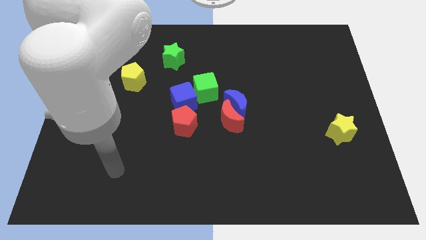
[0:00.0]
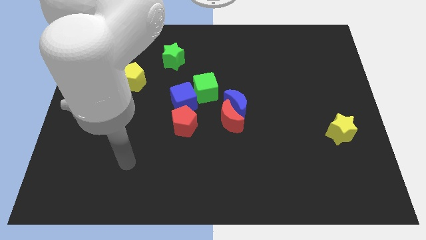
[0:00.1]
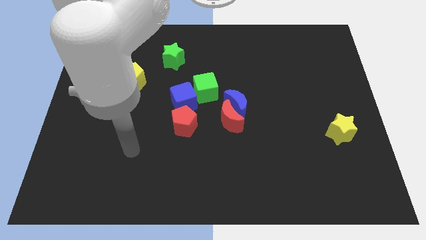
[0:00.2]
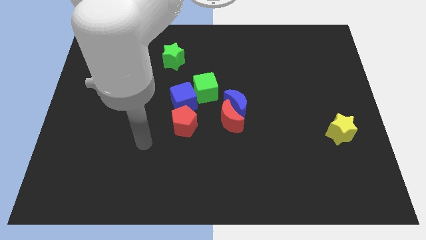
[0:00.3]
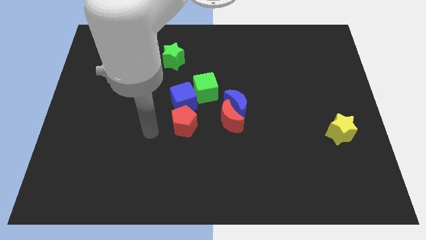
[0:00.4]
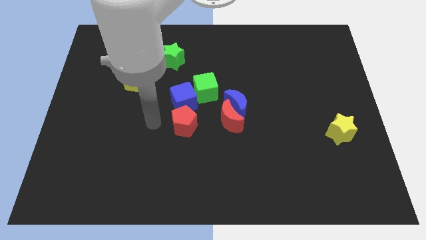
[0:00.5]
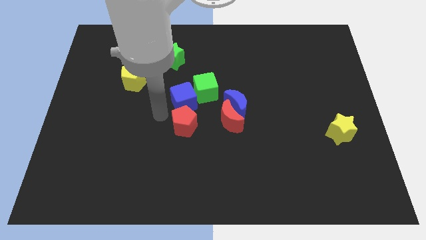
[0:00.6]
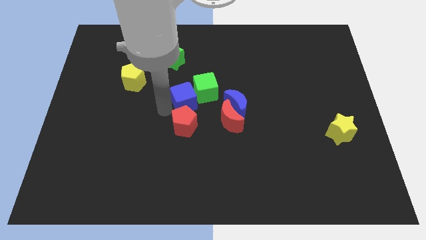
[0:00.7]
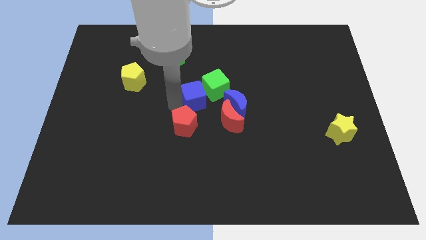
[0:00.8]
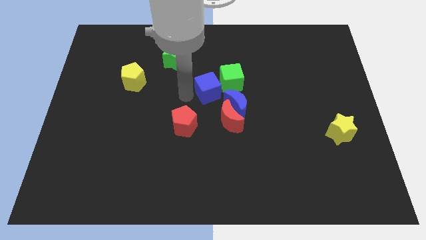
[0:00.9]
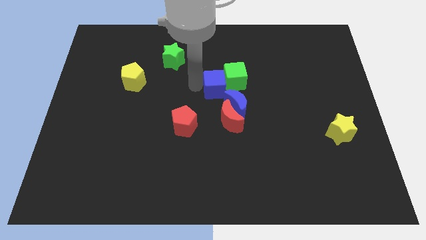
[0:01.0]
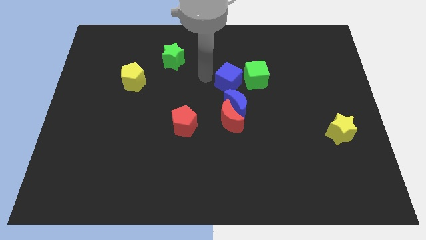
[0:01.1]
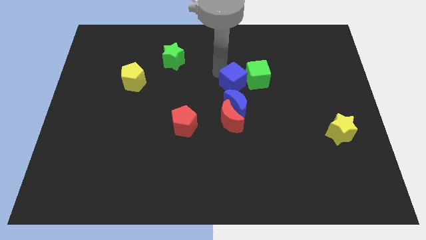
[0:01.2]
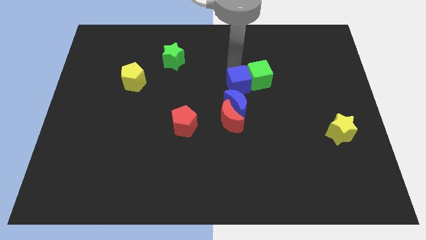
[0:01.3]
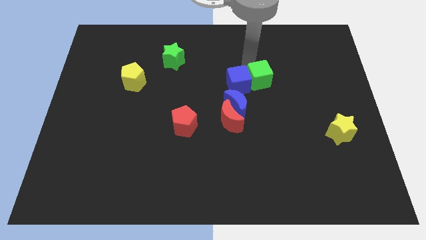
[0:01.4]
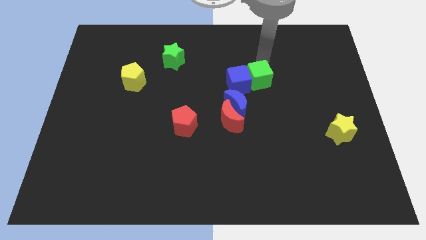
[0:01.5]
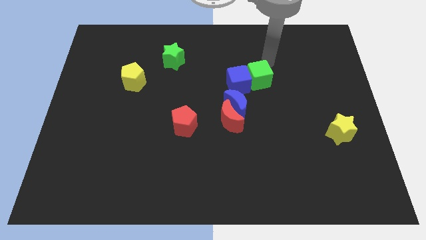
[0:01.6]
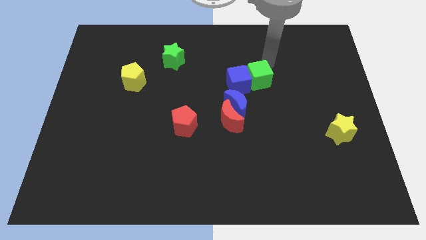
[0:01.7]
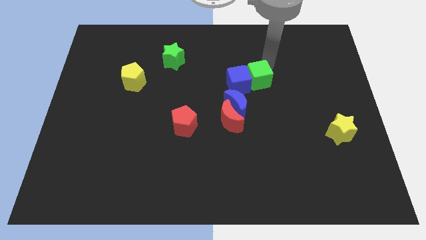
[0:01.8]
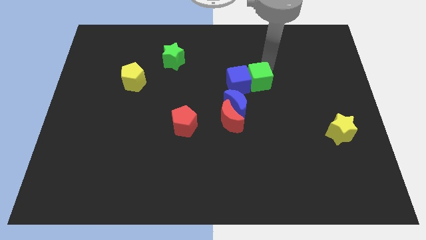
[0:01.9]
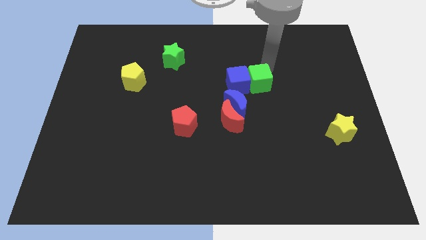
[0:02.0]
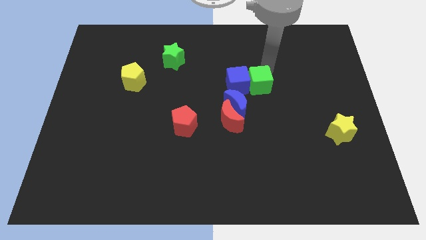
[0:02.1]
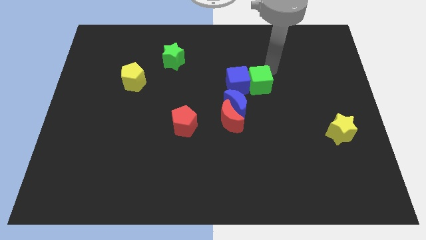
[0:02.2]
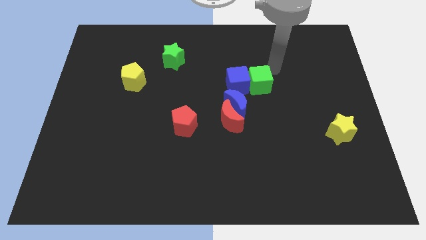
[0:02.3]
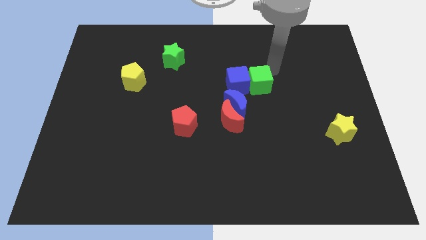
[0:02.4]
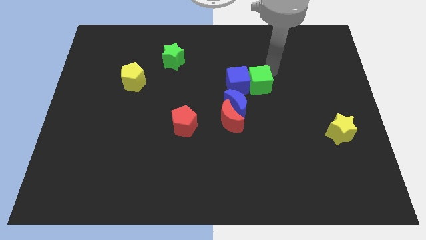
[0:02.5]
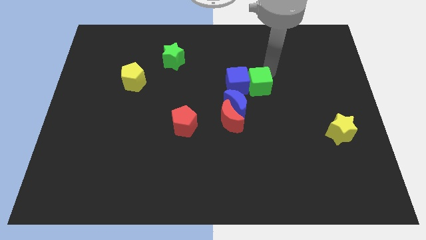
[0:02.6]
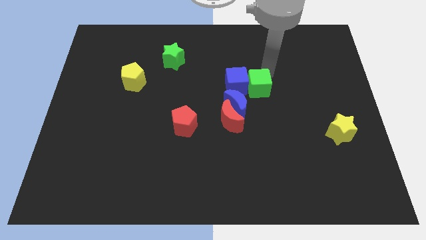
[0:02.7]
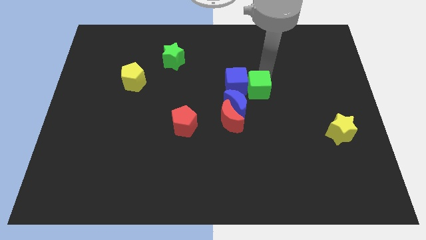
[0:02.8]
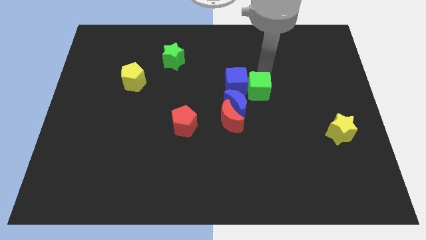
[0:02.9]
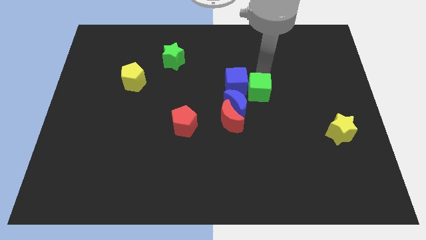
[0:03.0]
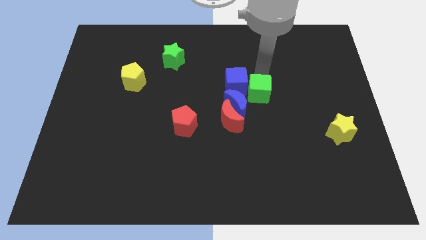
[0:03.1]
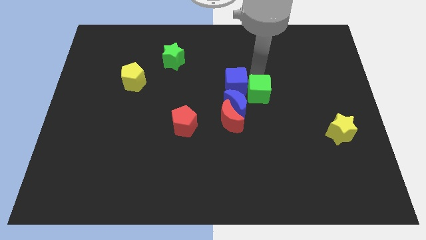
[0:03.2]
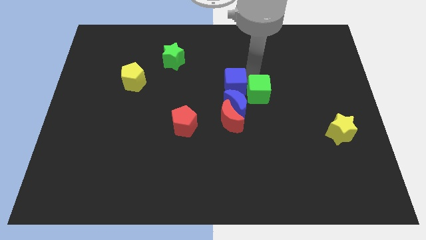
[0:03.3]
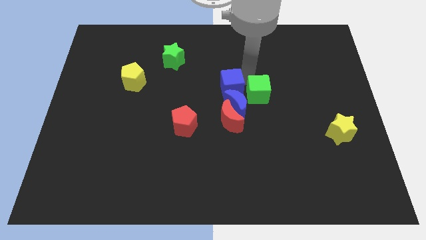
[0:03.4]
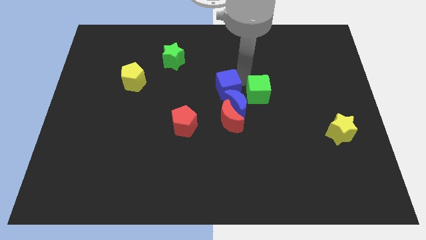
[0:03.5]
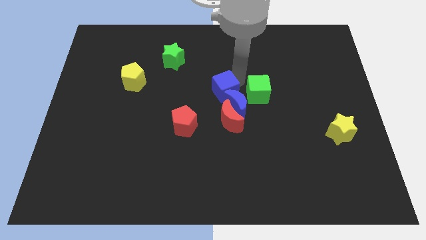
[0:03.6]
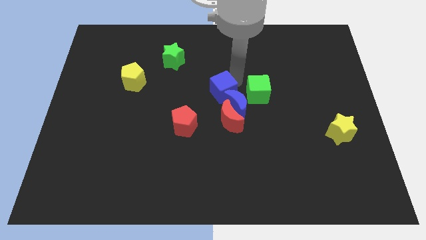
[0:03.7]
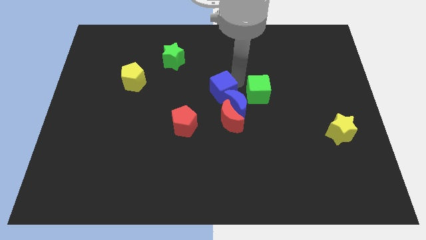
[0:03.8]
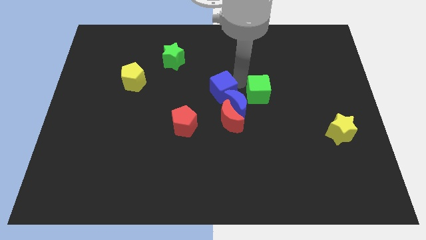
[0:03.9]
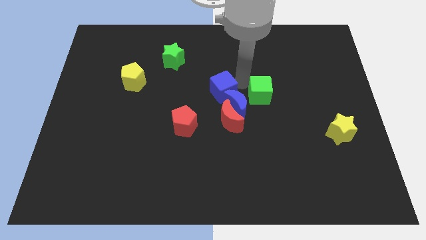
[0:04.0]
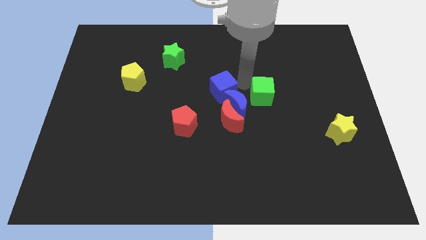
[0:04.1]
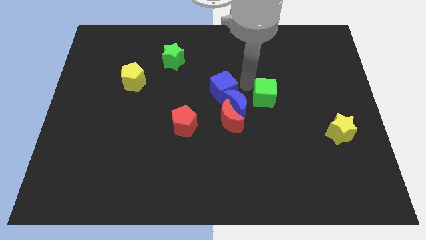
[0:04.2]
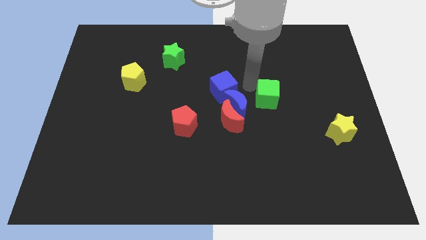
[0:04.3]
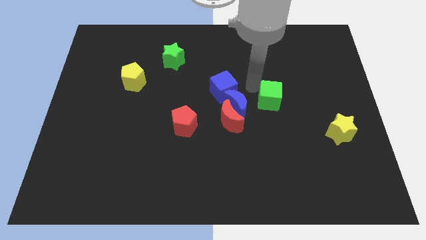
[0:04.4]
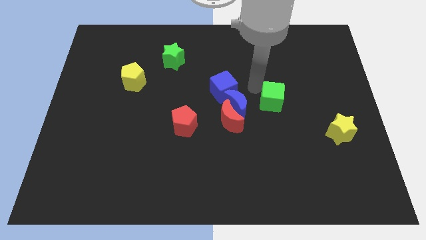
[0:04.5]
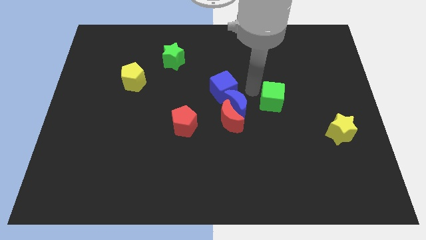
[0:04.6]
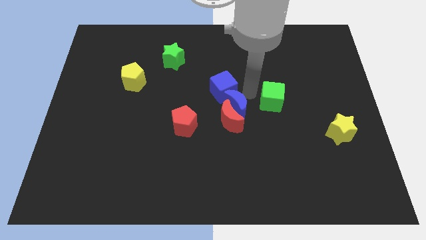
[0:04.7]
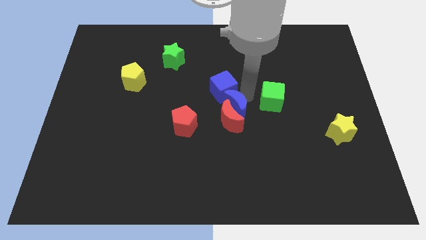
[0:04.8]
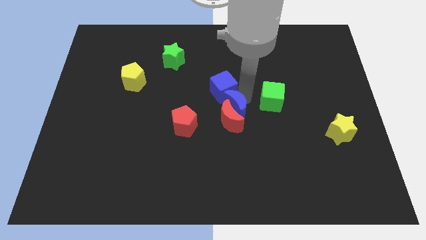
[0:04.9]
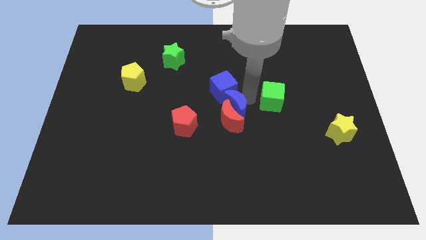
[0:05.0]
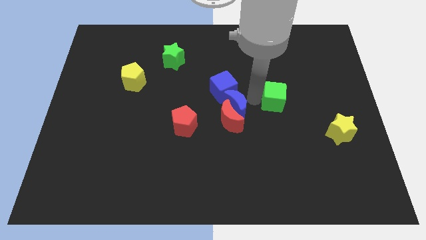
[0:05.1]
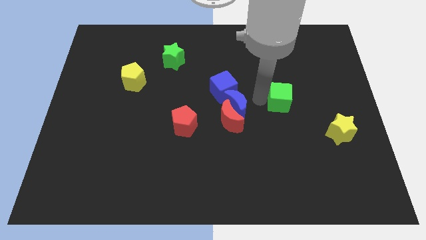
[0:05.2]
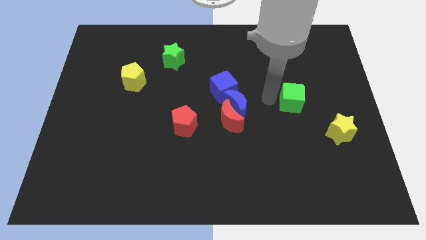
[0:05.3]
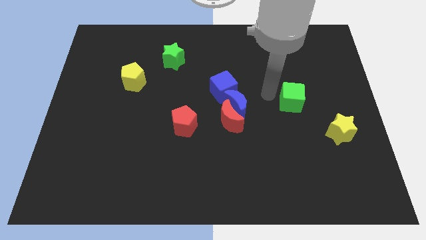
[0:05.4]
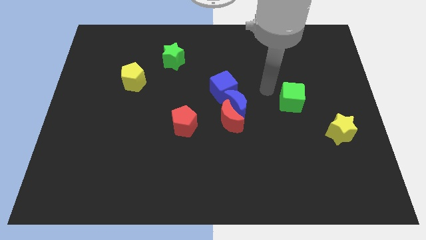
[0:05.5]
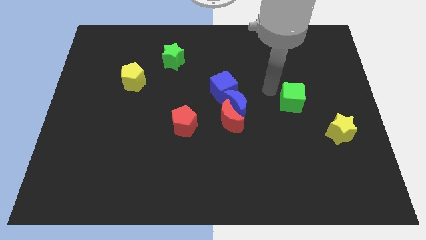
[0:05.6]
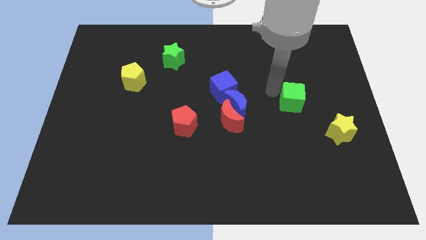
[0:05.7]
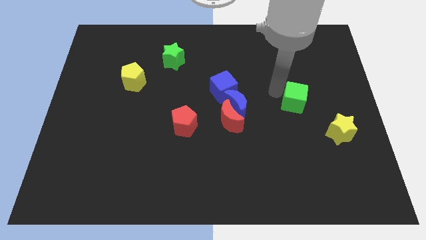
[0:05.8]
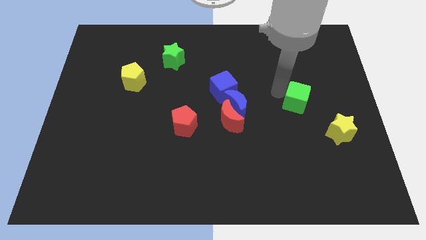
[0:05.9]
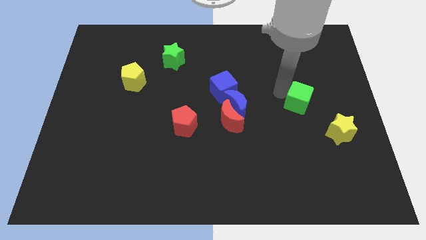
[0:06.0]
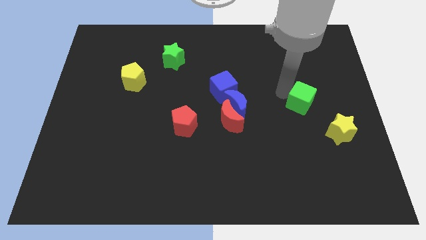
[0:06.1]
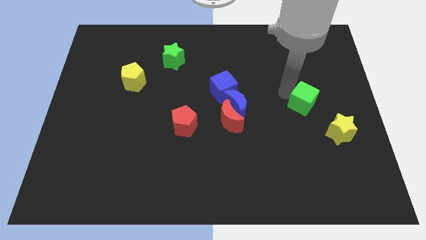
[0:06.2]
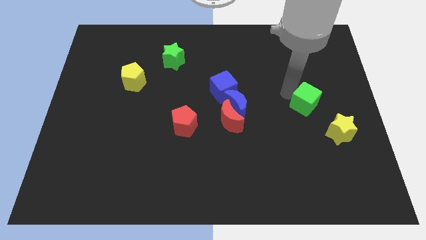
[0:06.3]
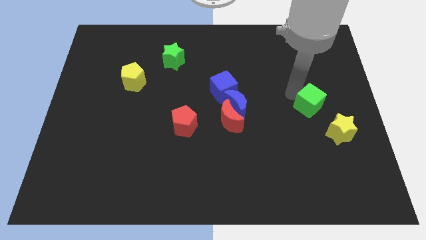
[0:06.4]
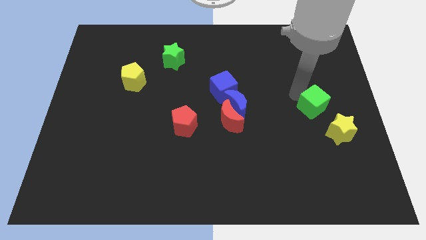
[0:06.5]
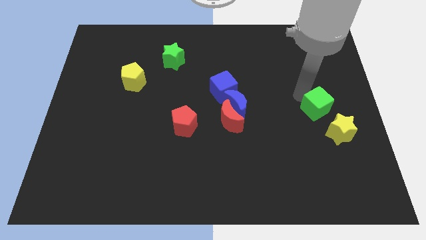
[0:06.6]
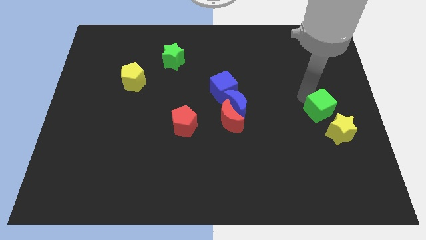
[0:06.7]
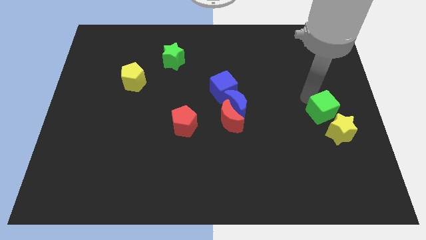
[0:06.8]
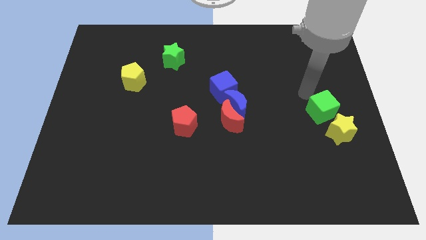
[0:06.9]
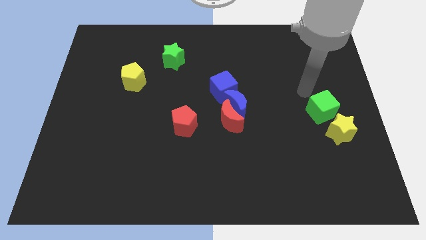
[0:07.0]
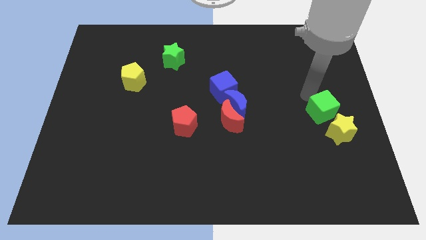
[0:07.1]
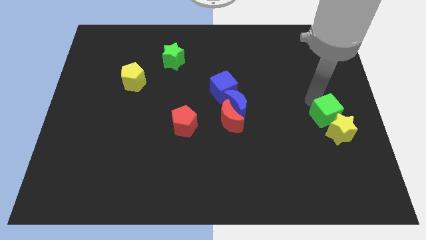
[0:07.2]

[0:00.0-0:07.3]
put the green cube next to the yellow star

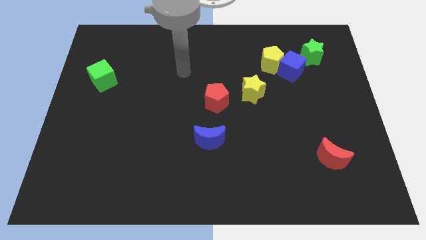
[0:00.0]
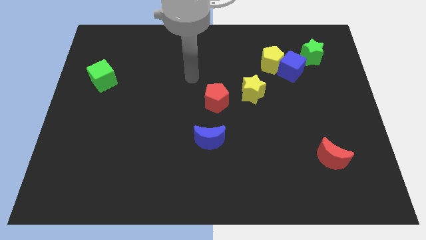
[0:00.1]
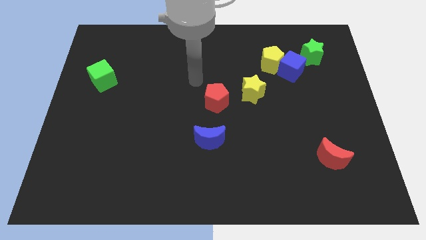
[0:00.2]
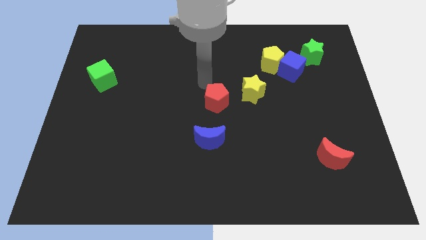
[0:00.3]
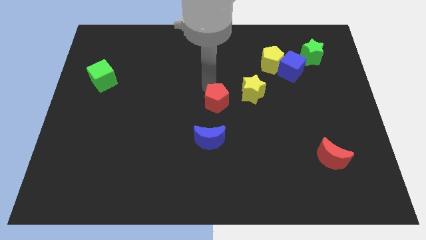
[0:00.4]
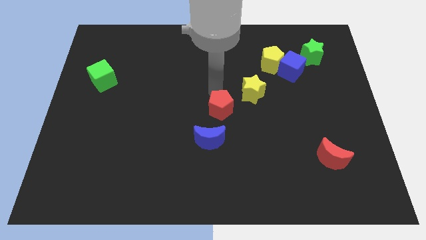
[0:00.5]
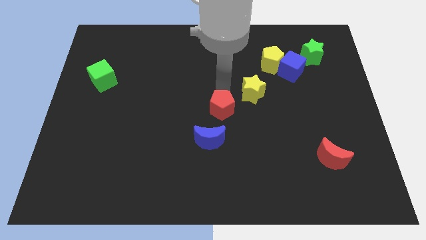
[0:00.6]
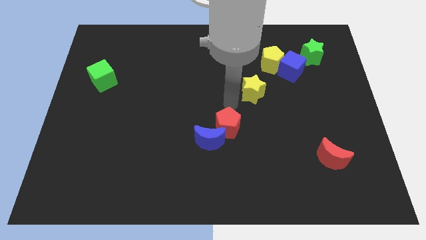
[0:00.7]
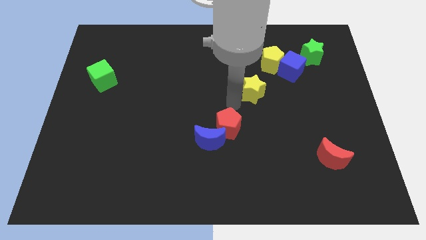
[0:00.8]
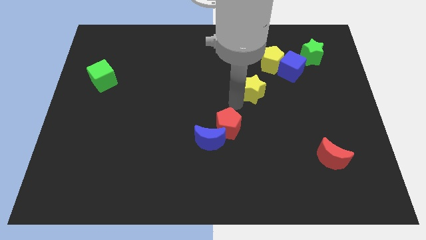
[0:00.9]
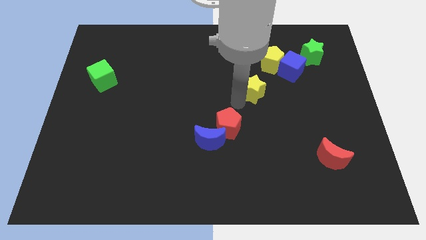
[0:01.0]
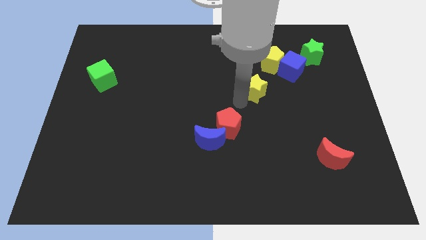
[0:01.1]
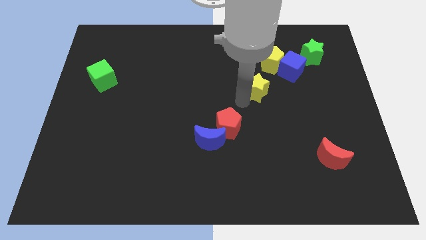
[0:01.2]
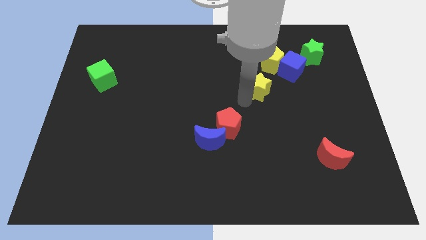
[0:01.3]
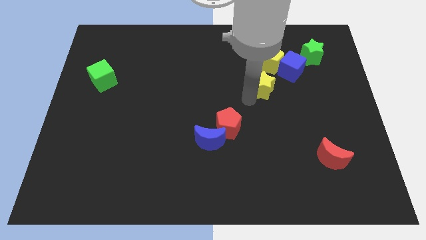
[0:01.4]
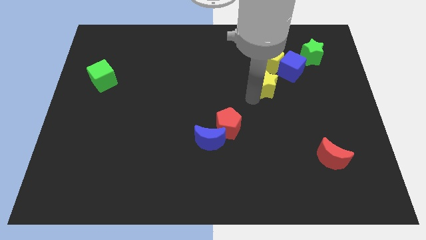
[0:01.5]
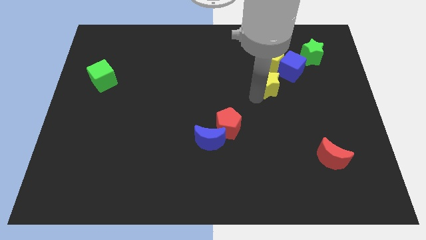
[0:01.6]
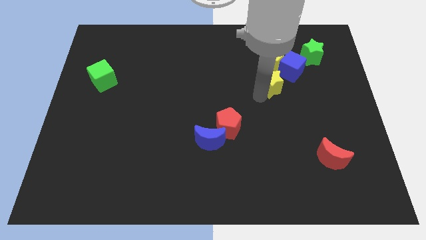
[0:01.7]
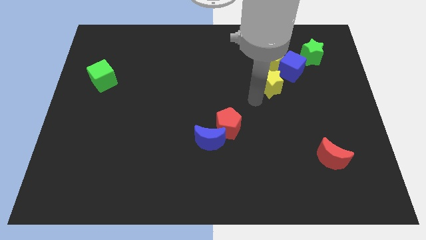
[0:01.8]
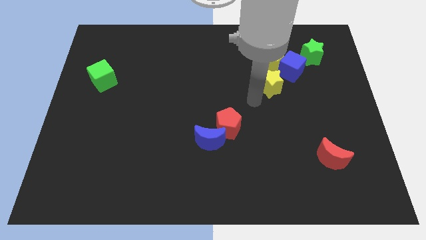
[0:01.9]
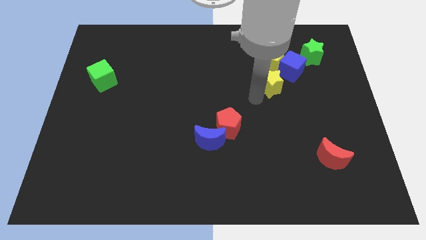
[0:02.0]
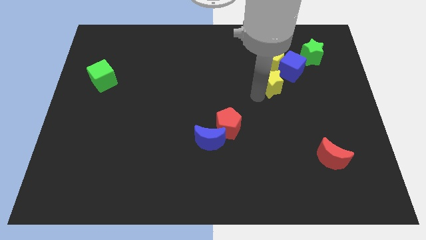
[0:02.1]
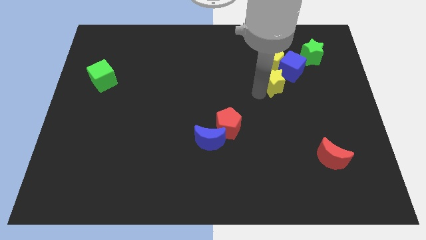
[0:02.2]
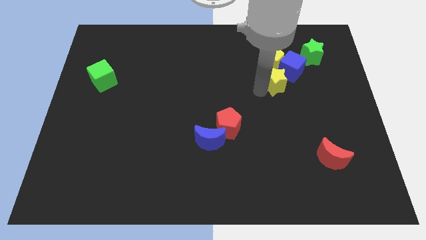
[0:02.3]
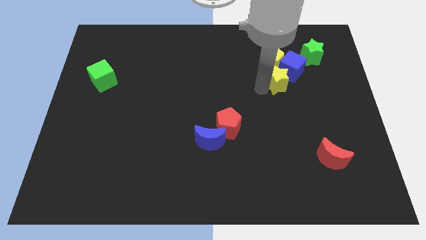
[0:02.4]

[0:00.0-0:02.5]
slide the yellow star to the blue cube
